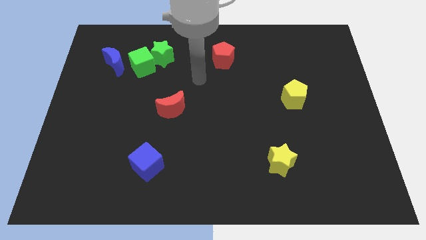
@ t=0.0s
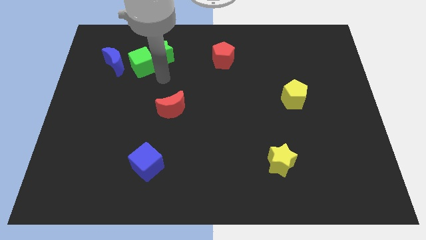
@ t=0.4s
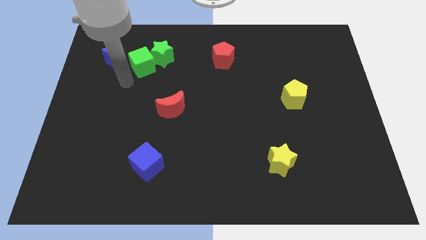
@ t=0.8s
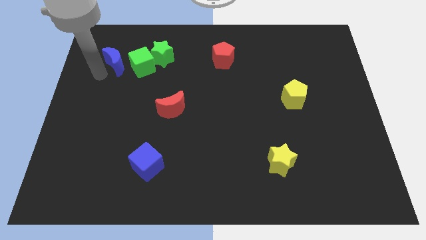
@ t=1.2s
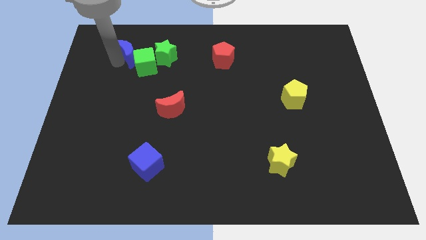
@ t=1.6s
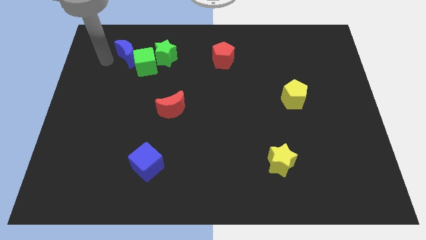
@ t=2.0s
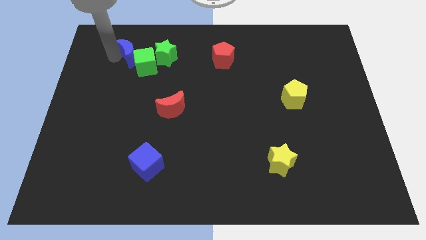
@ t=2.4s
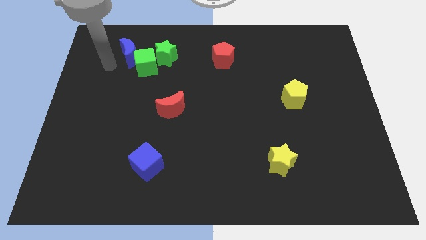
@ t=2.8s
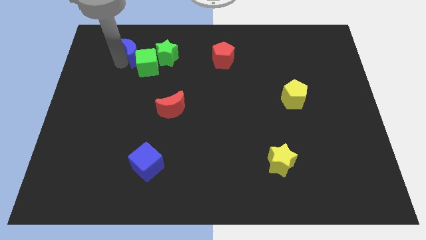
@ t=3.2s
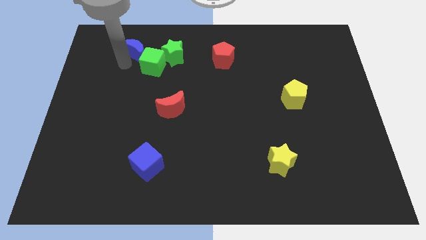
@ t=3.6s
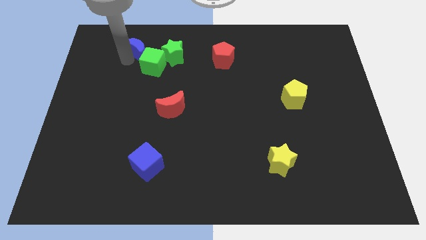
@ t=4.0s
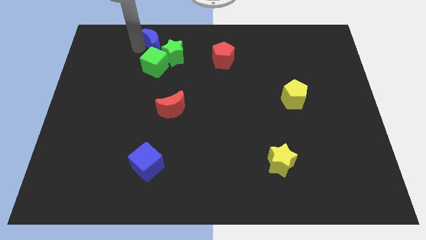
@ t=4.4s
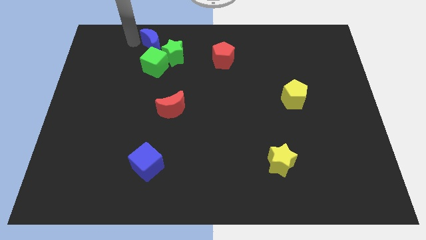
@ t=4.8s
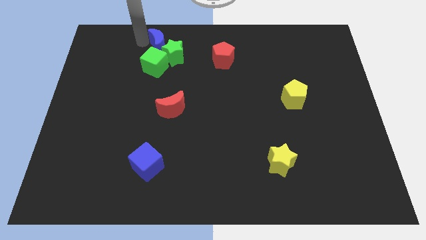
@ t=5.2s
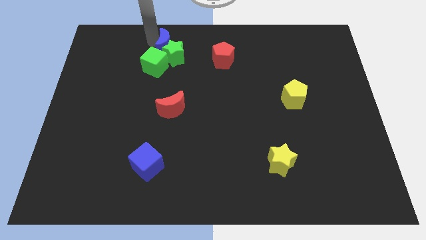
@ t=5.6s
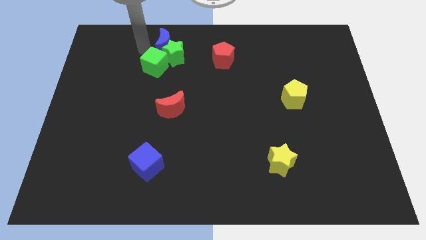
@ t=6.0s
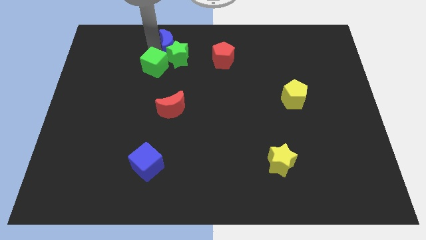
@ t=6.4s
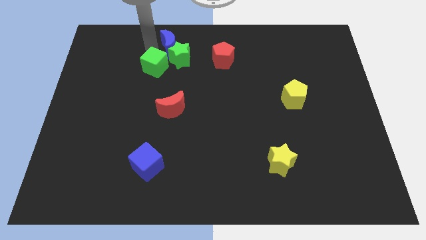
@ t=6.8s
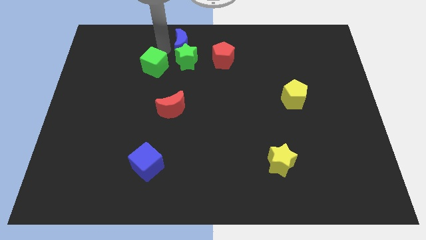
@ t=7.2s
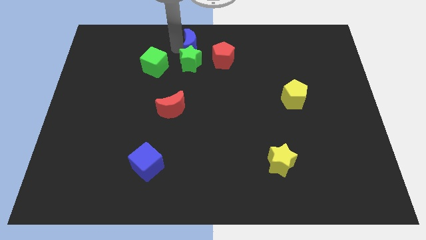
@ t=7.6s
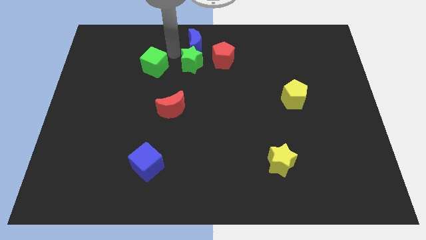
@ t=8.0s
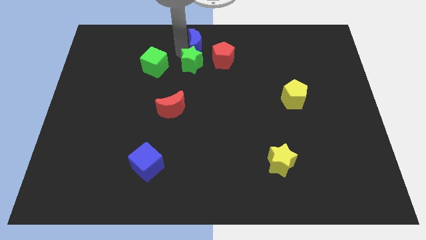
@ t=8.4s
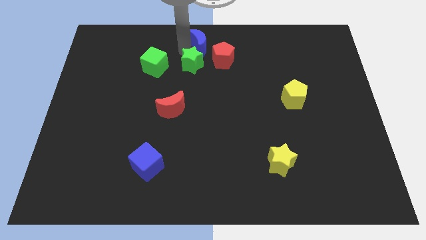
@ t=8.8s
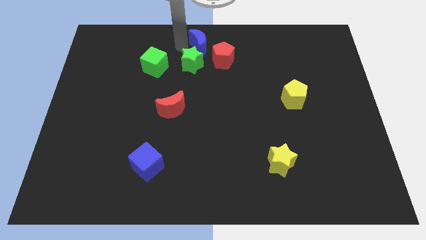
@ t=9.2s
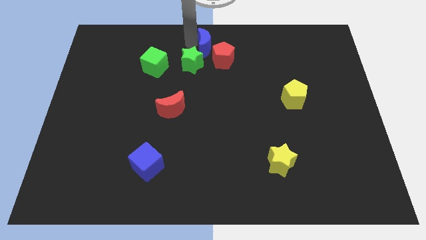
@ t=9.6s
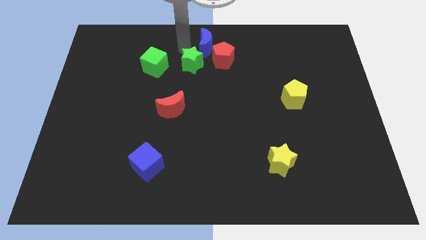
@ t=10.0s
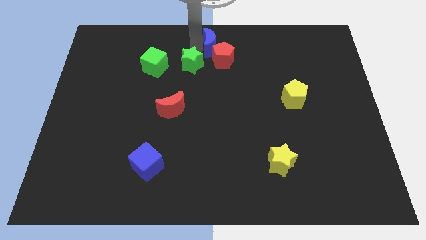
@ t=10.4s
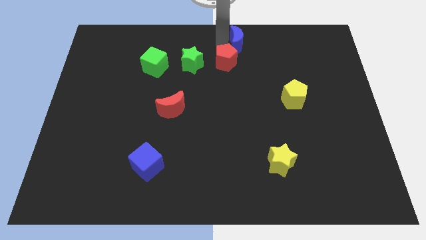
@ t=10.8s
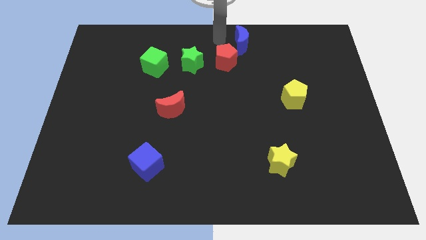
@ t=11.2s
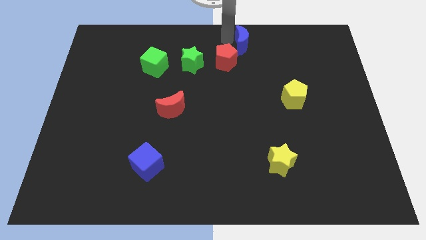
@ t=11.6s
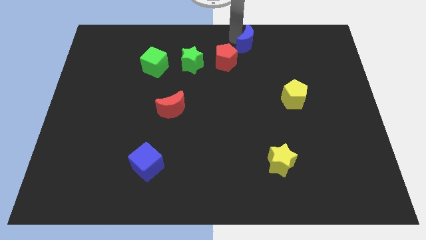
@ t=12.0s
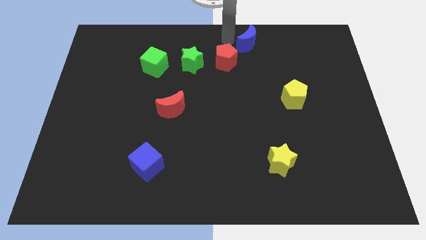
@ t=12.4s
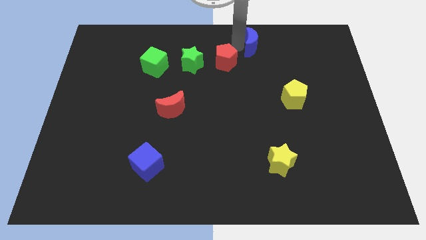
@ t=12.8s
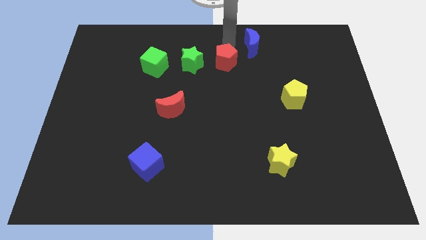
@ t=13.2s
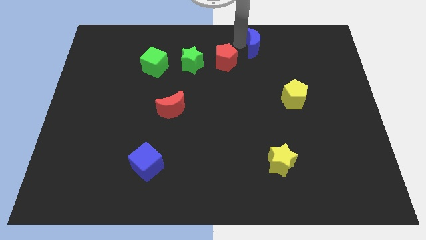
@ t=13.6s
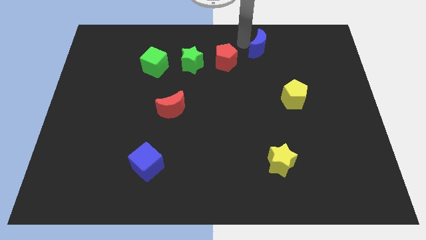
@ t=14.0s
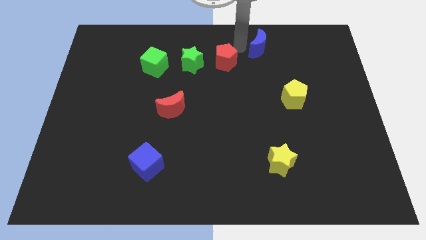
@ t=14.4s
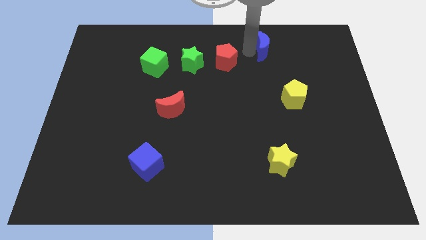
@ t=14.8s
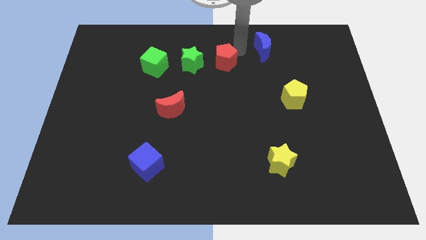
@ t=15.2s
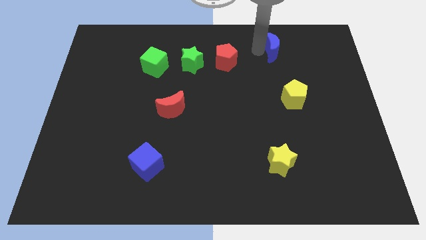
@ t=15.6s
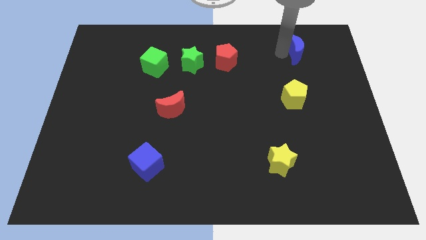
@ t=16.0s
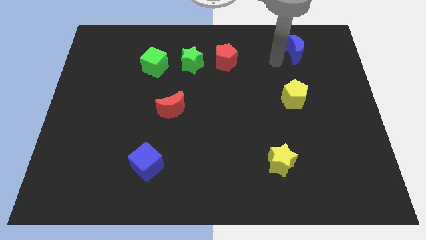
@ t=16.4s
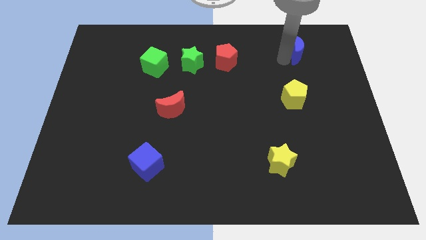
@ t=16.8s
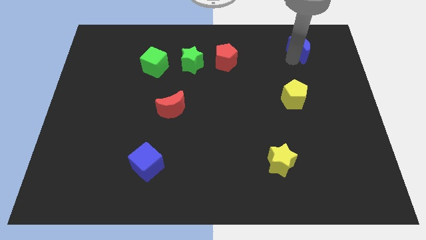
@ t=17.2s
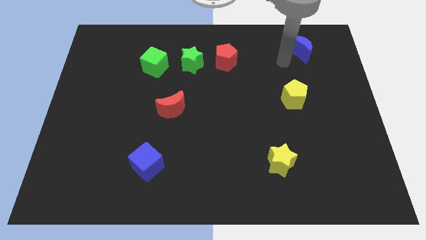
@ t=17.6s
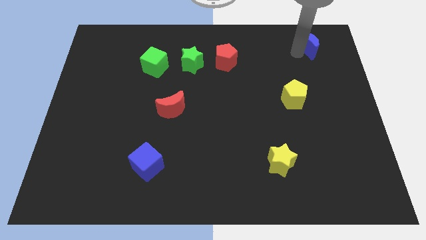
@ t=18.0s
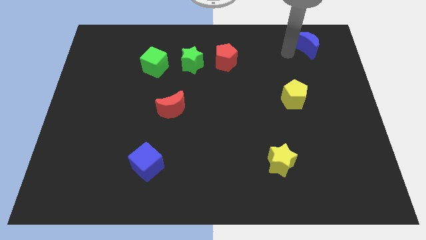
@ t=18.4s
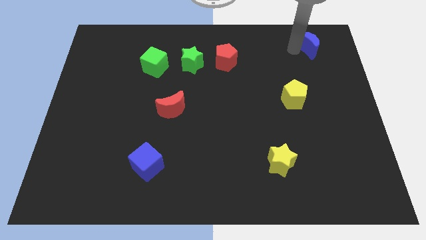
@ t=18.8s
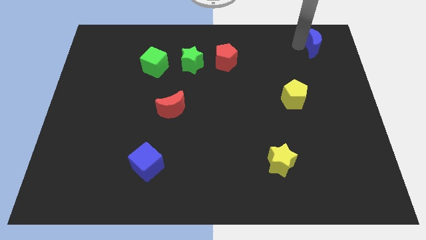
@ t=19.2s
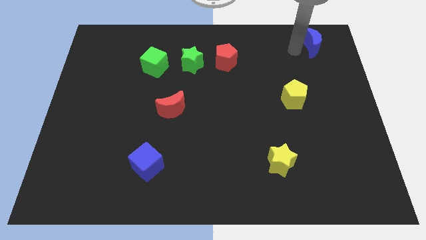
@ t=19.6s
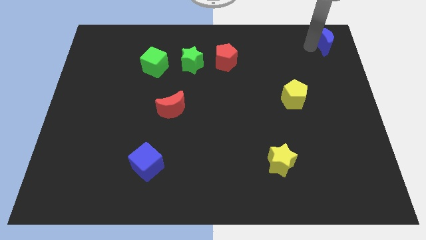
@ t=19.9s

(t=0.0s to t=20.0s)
put the blue moon to the top right corner

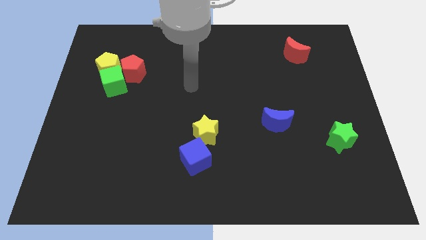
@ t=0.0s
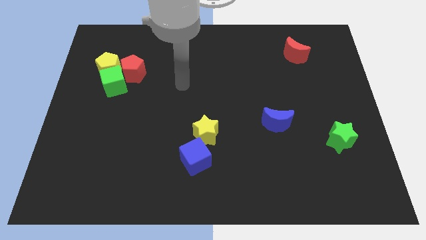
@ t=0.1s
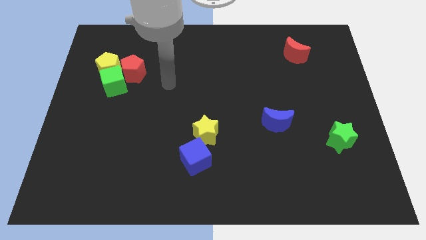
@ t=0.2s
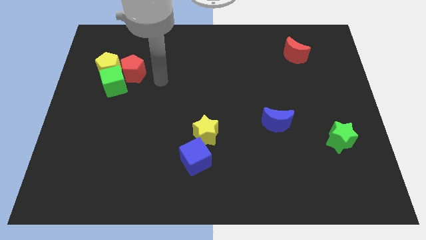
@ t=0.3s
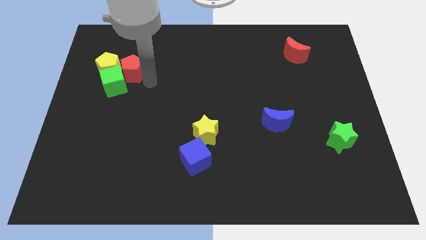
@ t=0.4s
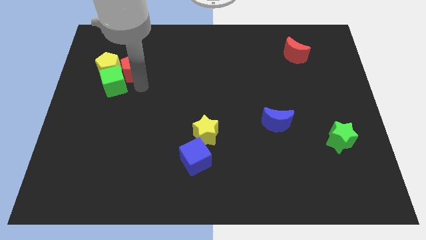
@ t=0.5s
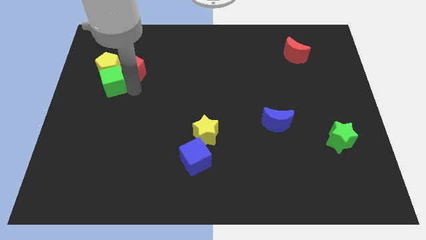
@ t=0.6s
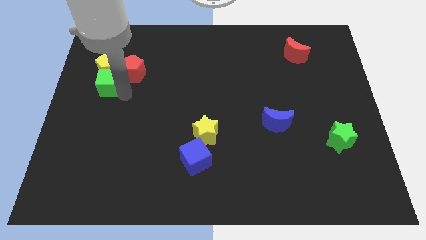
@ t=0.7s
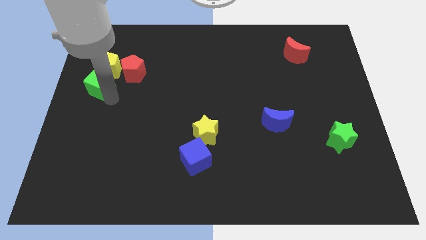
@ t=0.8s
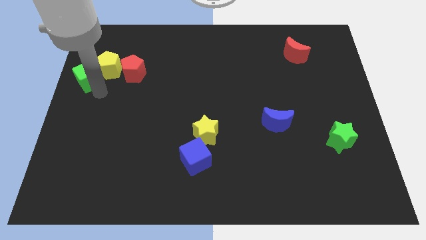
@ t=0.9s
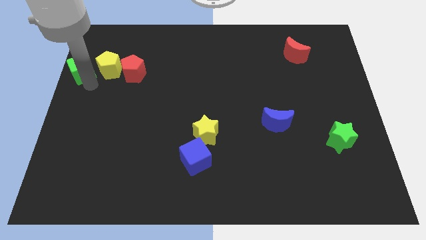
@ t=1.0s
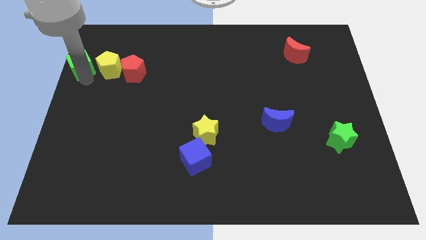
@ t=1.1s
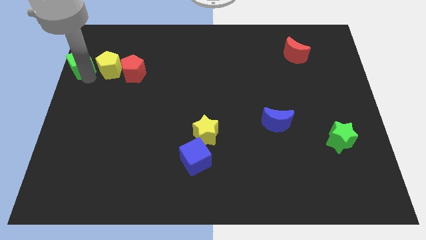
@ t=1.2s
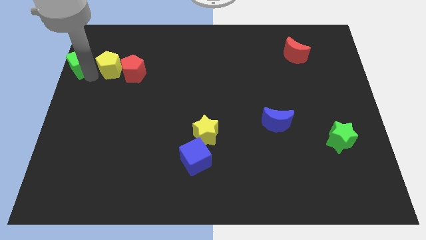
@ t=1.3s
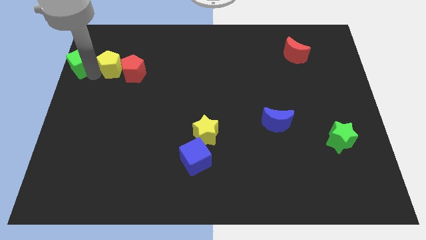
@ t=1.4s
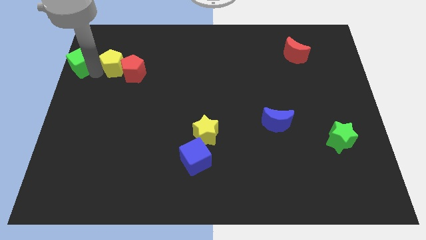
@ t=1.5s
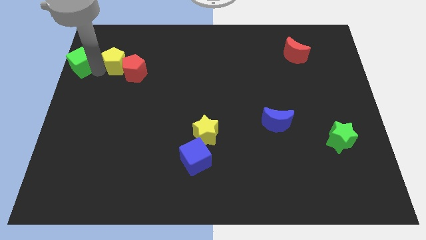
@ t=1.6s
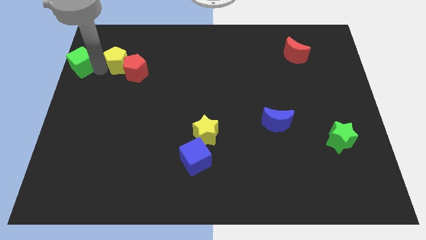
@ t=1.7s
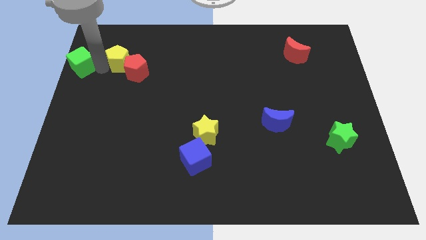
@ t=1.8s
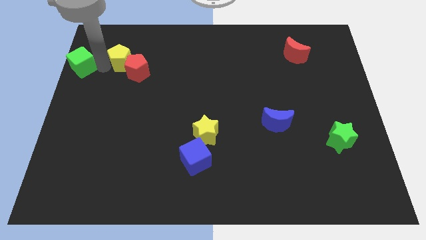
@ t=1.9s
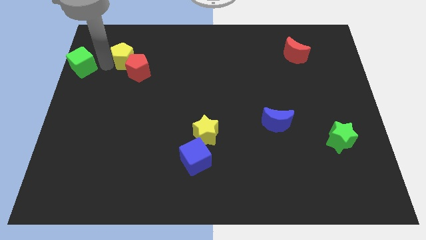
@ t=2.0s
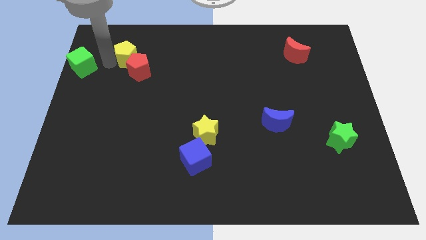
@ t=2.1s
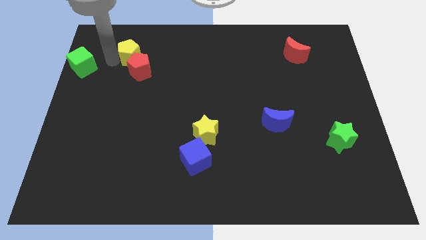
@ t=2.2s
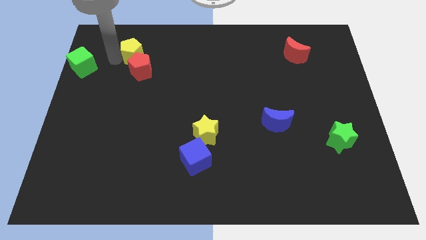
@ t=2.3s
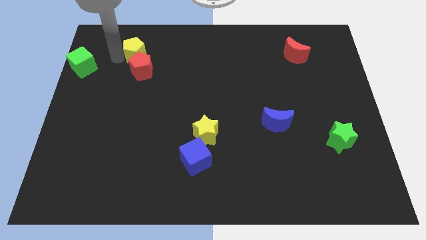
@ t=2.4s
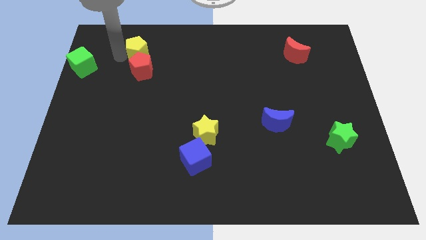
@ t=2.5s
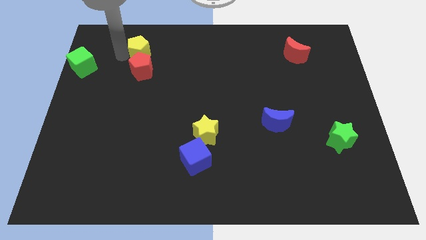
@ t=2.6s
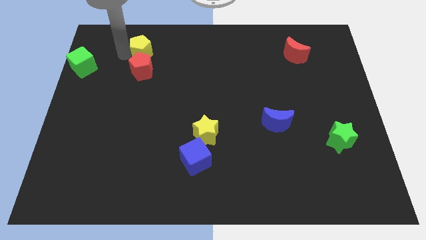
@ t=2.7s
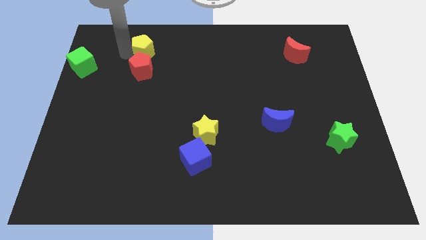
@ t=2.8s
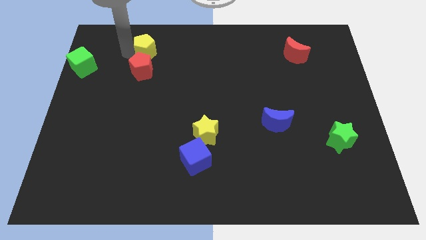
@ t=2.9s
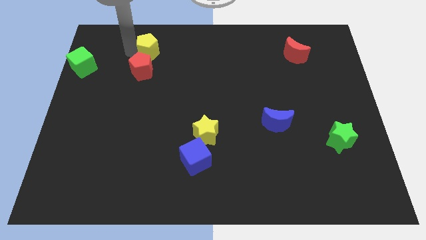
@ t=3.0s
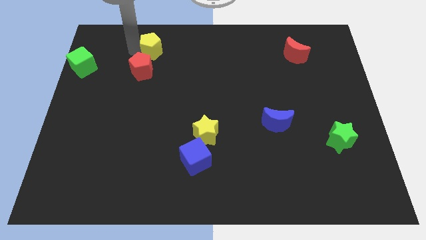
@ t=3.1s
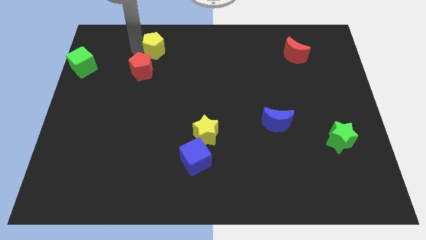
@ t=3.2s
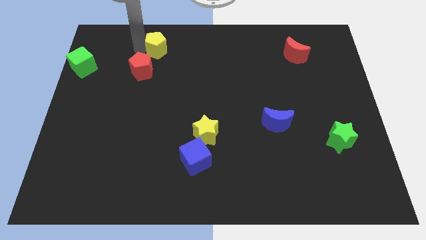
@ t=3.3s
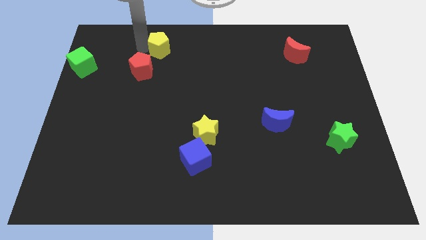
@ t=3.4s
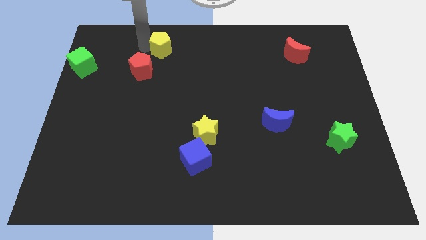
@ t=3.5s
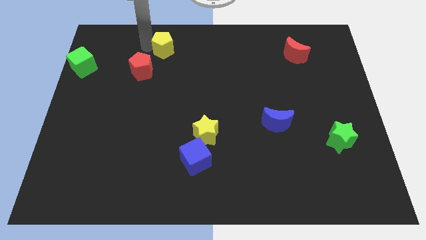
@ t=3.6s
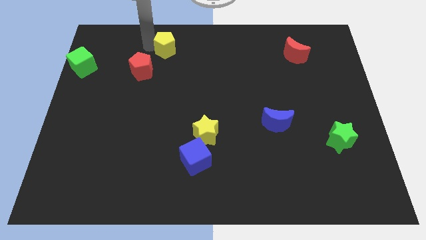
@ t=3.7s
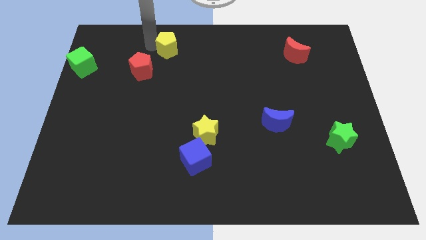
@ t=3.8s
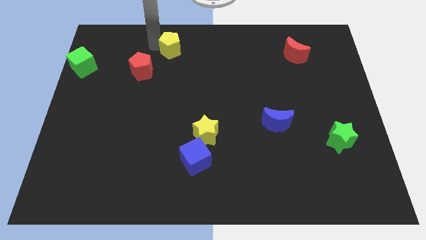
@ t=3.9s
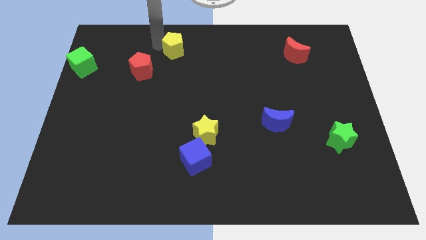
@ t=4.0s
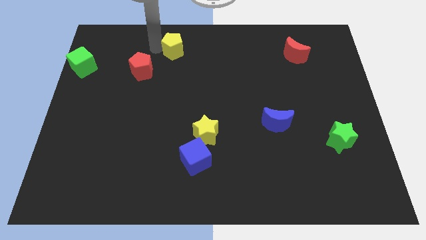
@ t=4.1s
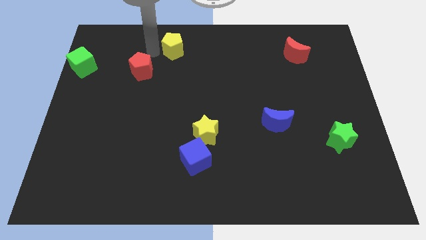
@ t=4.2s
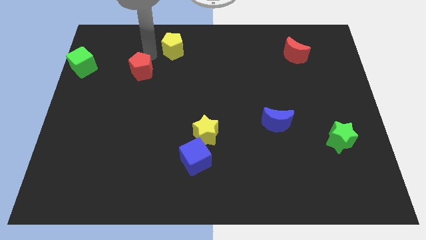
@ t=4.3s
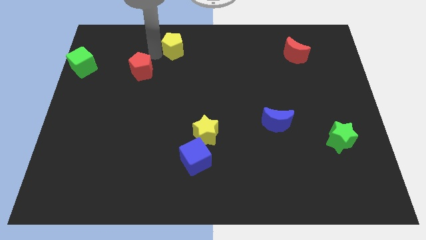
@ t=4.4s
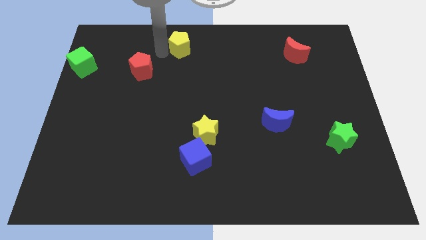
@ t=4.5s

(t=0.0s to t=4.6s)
slide the yellow pentagon to the towards your base
